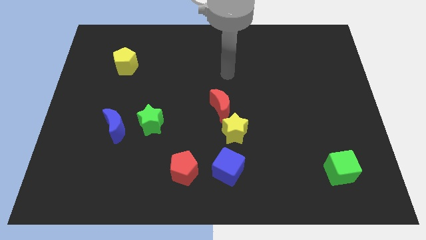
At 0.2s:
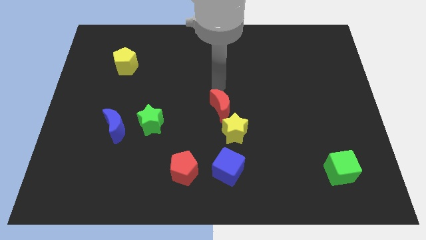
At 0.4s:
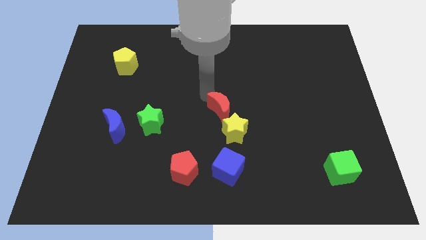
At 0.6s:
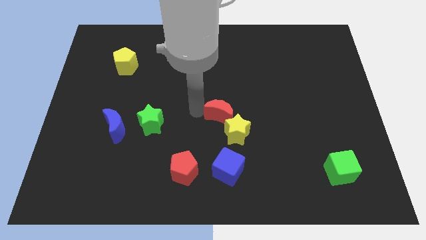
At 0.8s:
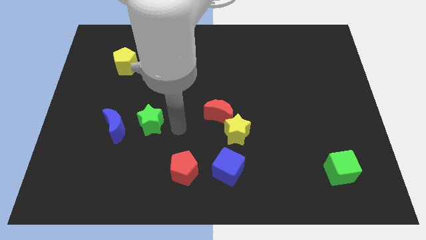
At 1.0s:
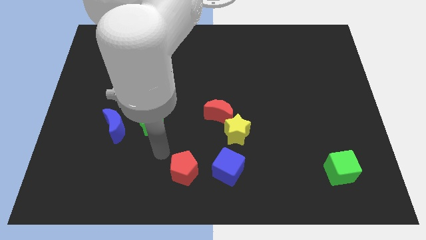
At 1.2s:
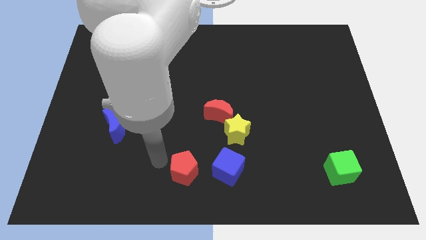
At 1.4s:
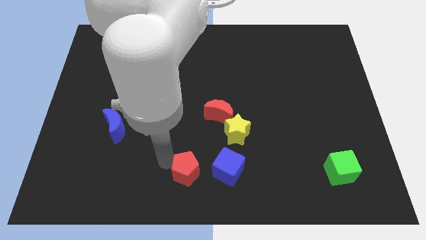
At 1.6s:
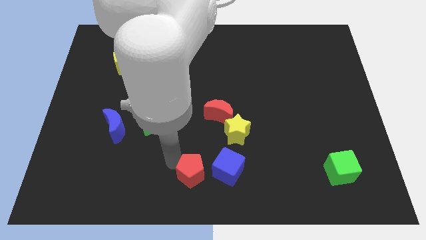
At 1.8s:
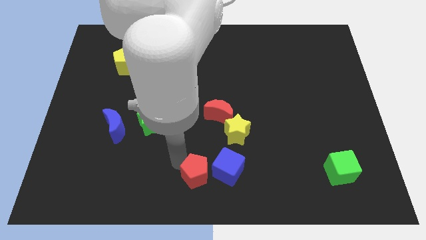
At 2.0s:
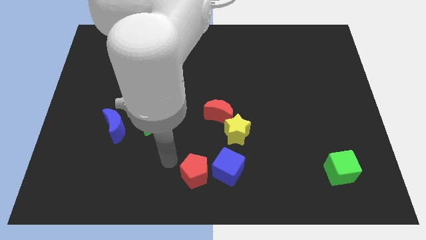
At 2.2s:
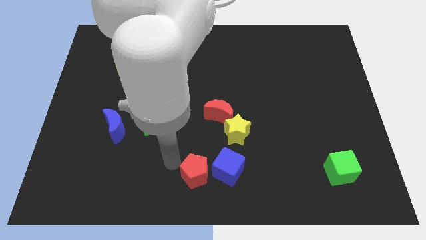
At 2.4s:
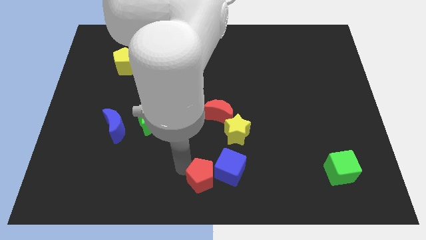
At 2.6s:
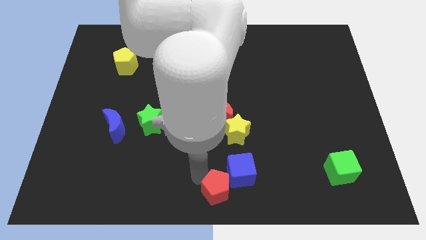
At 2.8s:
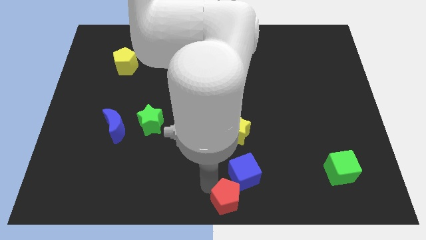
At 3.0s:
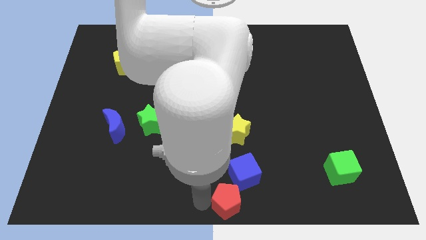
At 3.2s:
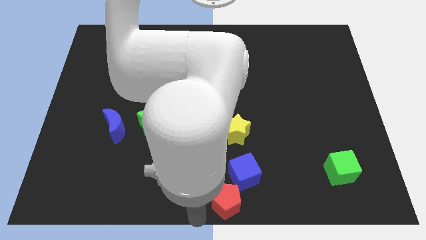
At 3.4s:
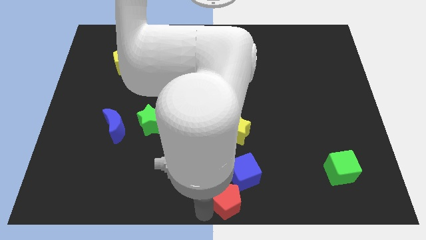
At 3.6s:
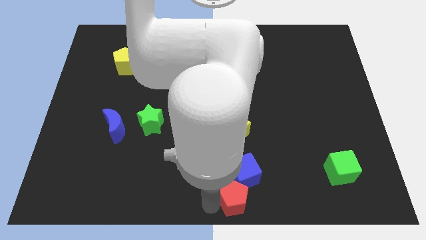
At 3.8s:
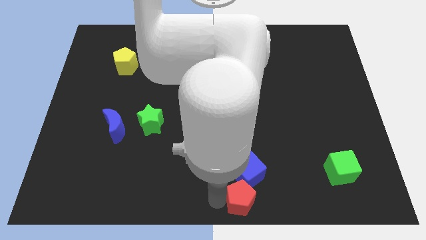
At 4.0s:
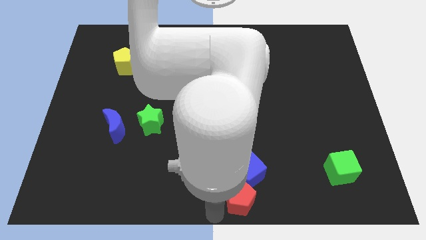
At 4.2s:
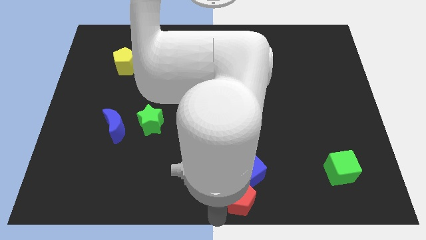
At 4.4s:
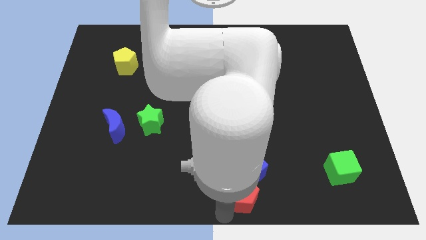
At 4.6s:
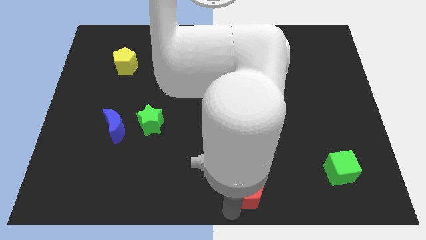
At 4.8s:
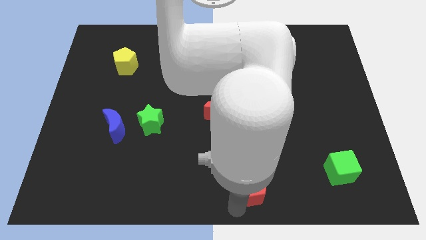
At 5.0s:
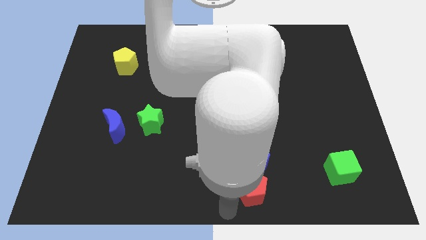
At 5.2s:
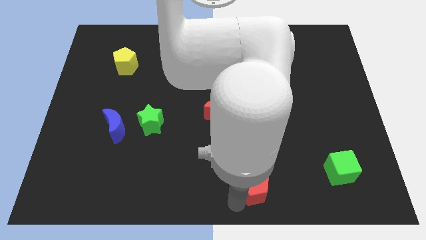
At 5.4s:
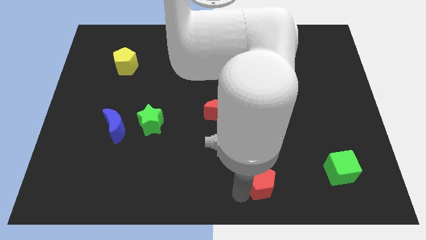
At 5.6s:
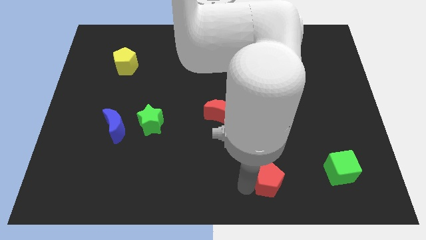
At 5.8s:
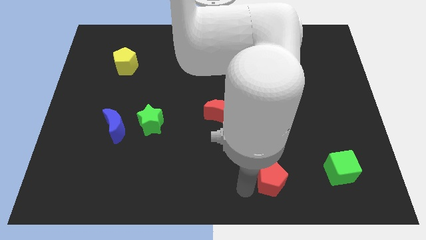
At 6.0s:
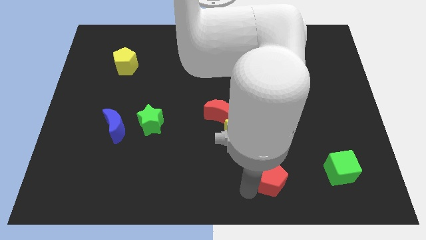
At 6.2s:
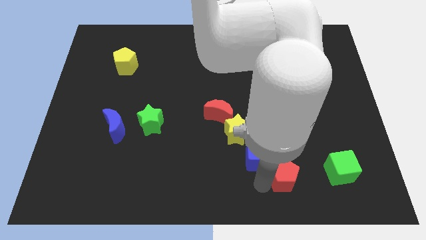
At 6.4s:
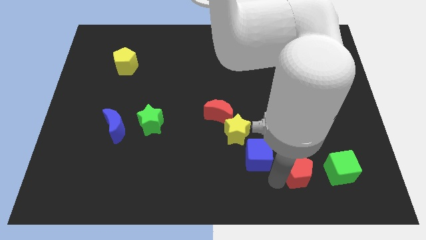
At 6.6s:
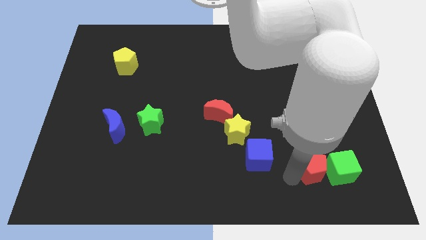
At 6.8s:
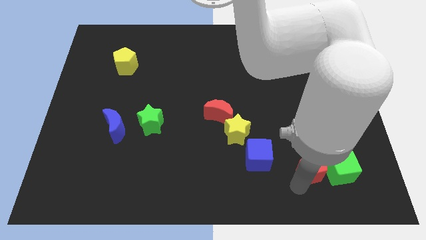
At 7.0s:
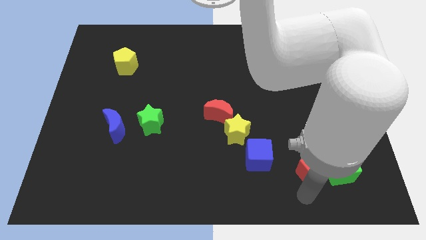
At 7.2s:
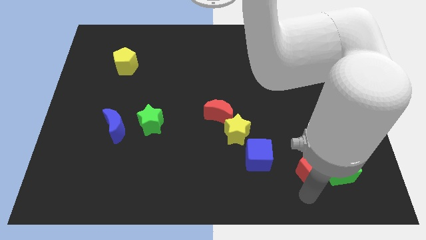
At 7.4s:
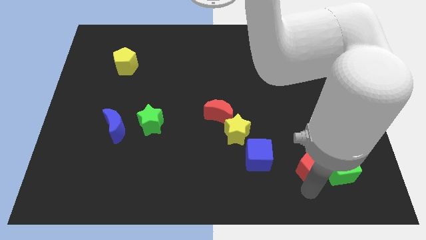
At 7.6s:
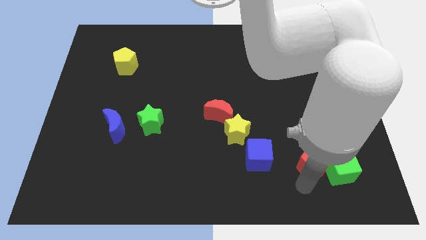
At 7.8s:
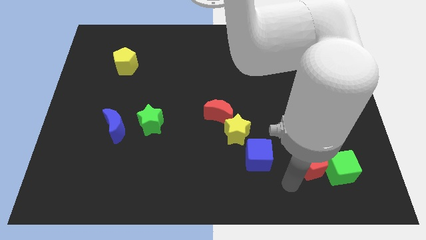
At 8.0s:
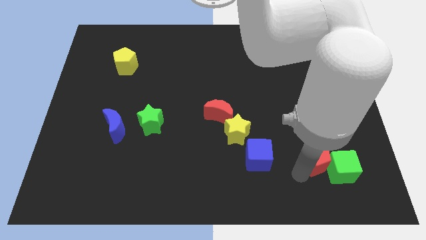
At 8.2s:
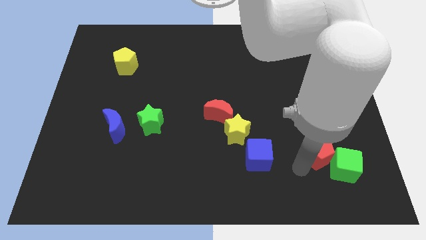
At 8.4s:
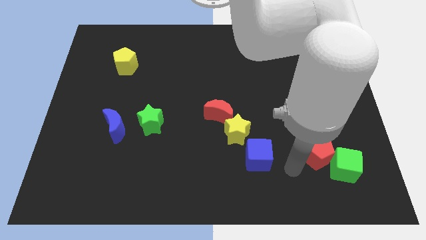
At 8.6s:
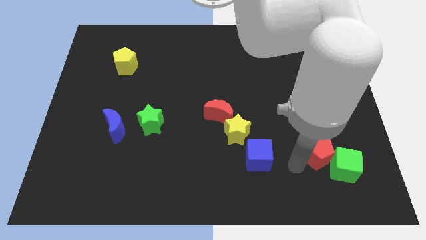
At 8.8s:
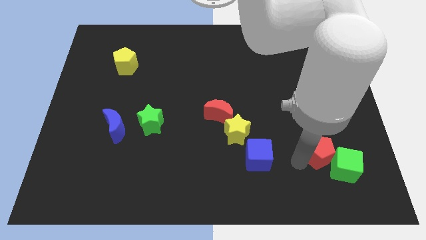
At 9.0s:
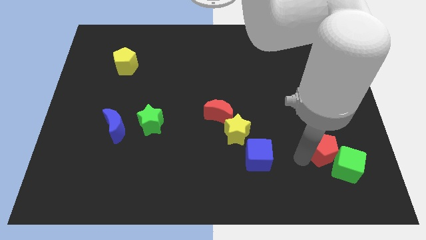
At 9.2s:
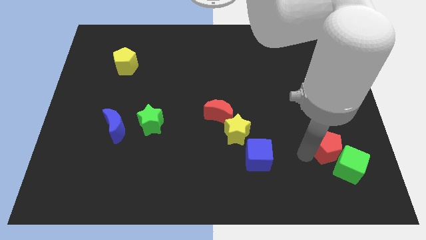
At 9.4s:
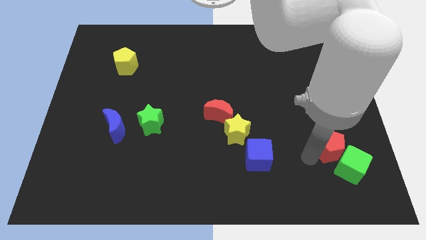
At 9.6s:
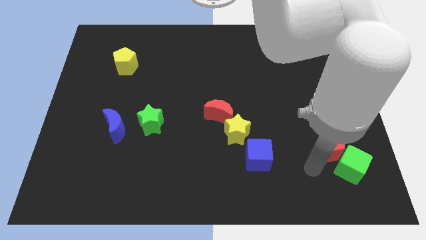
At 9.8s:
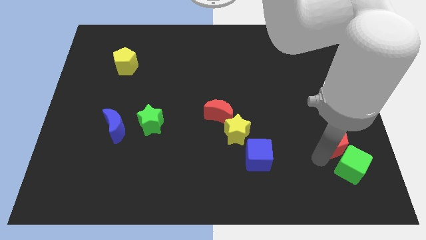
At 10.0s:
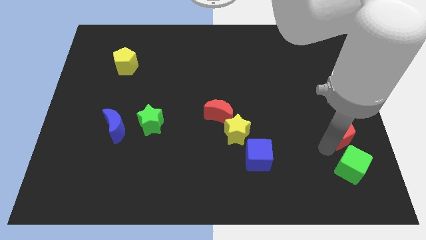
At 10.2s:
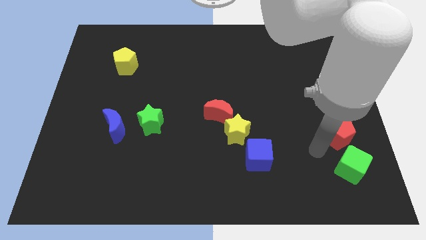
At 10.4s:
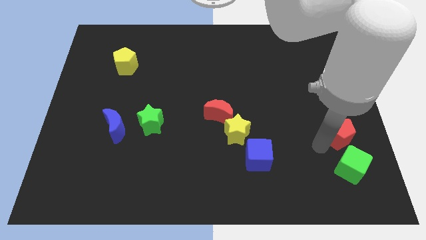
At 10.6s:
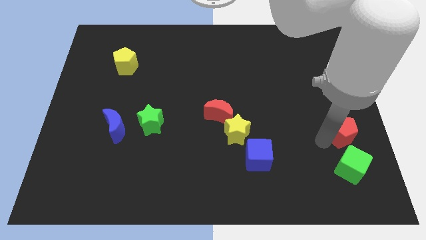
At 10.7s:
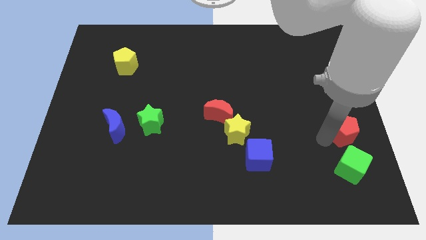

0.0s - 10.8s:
push the red pentagon to the right side of the board
